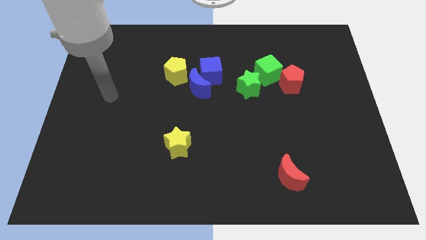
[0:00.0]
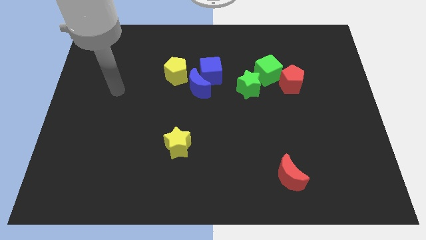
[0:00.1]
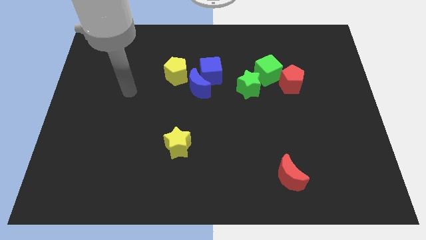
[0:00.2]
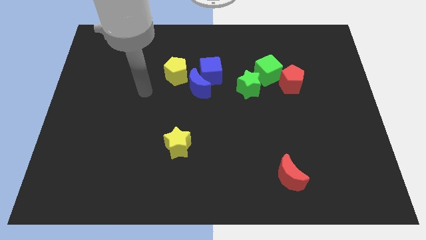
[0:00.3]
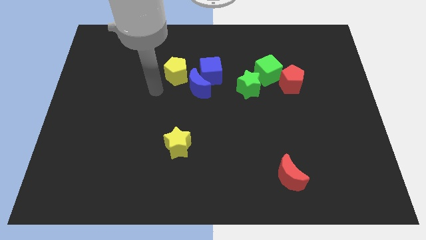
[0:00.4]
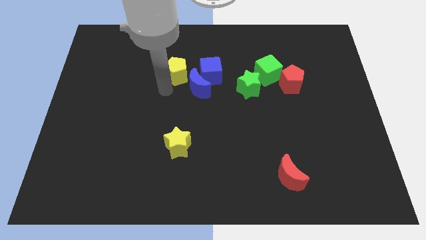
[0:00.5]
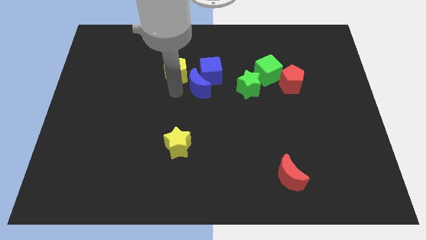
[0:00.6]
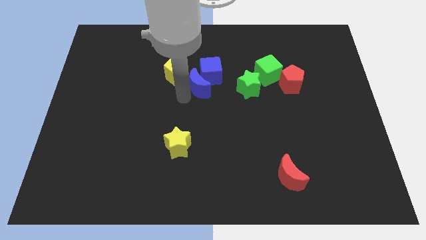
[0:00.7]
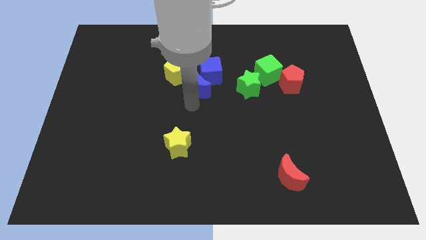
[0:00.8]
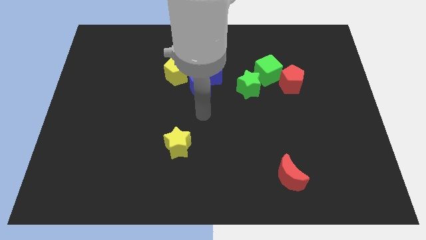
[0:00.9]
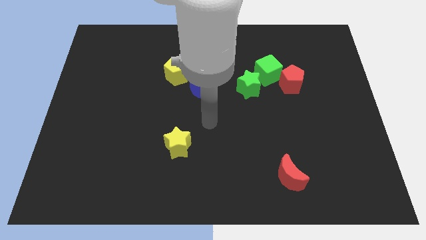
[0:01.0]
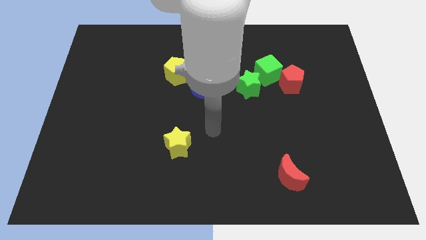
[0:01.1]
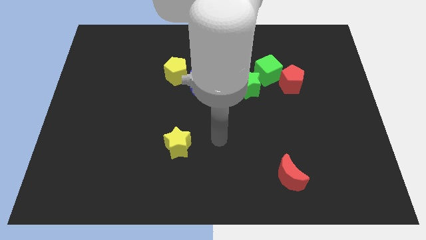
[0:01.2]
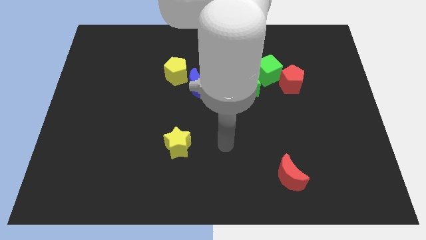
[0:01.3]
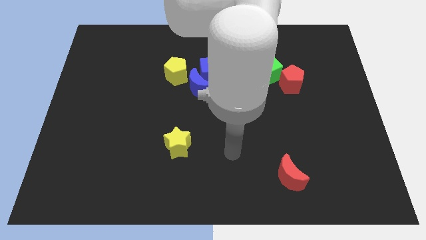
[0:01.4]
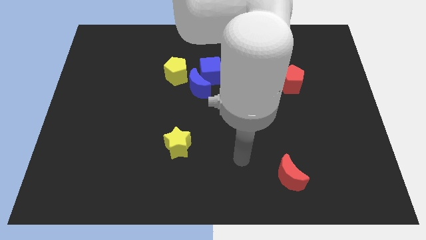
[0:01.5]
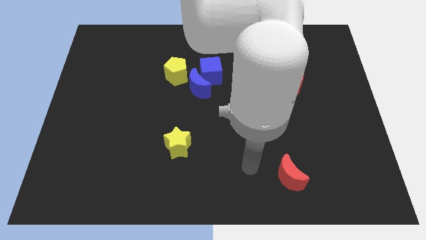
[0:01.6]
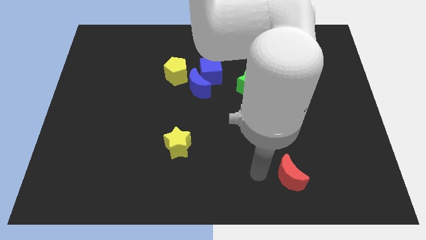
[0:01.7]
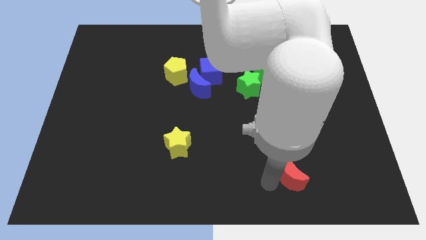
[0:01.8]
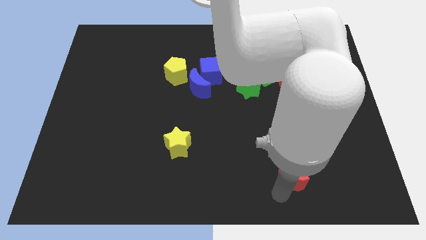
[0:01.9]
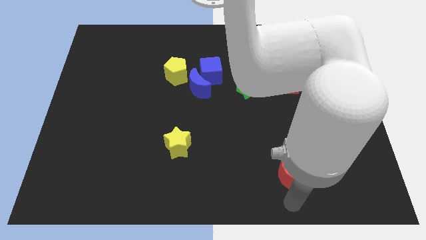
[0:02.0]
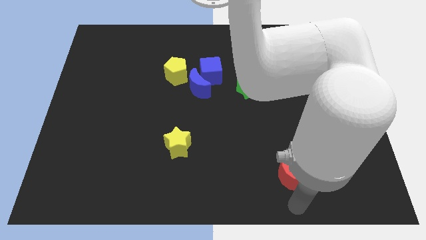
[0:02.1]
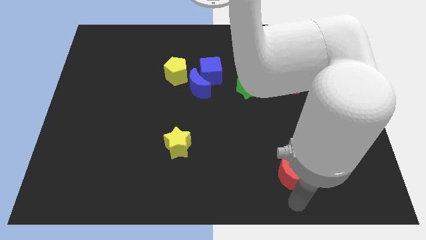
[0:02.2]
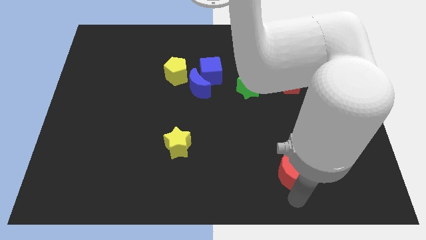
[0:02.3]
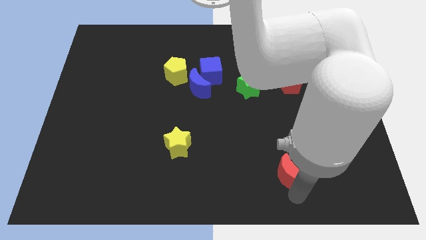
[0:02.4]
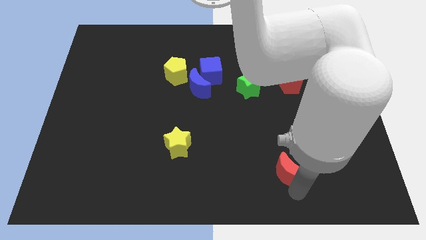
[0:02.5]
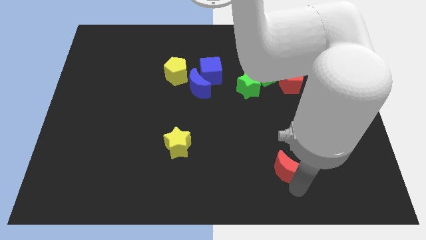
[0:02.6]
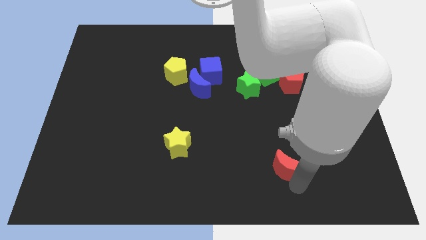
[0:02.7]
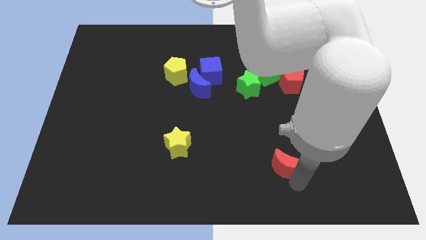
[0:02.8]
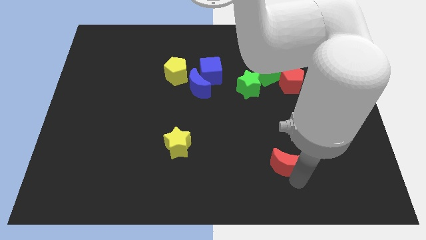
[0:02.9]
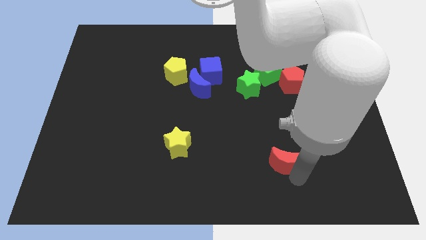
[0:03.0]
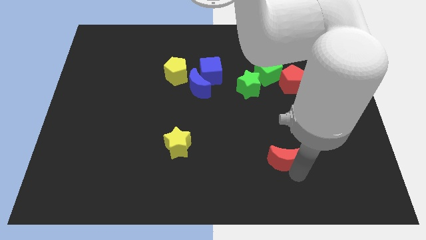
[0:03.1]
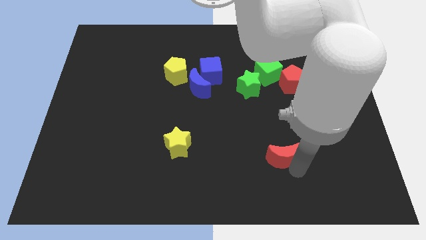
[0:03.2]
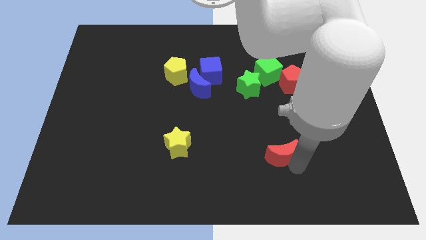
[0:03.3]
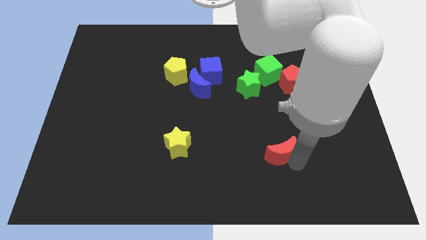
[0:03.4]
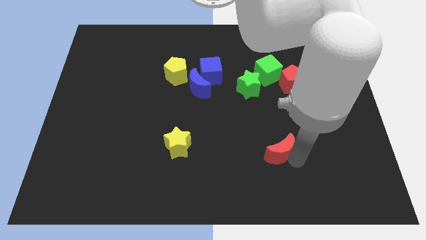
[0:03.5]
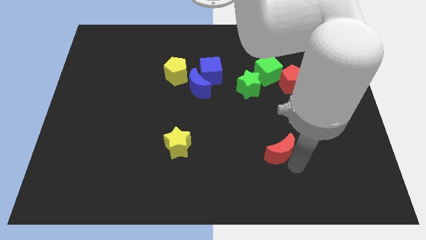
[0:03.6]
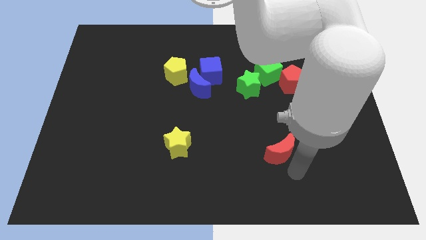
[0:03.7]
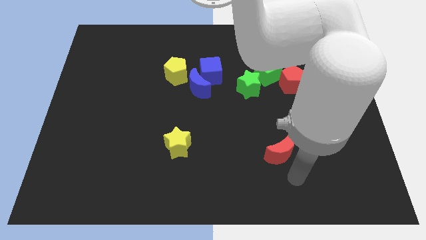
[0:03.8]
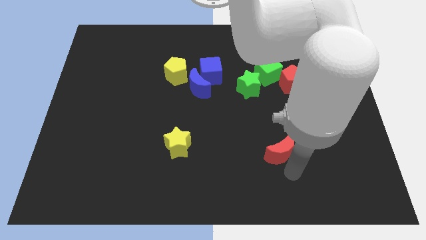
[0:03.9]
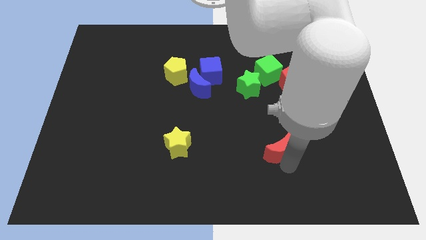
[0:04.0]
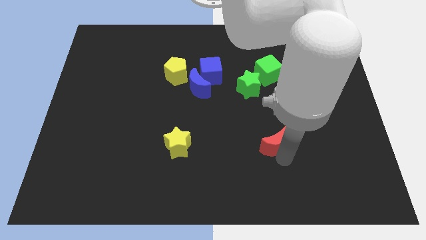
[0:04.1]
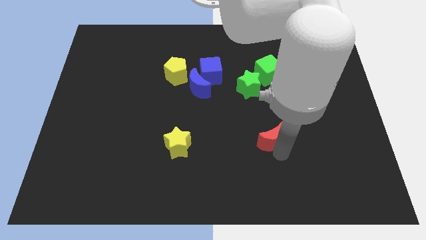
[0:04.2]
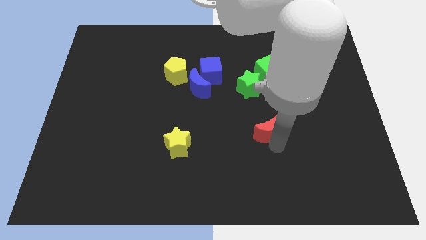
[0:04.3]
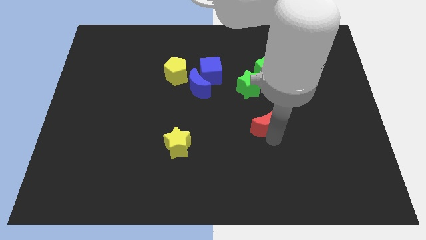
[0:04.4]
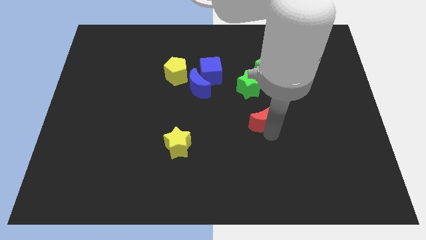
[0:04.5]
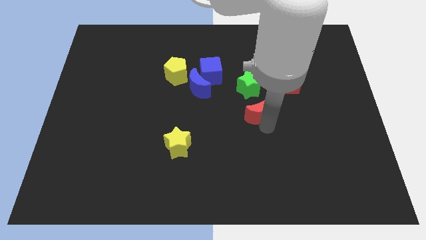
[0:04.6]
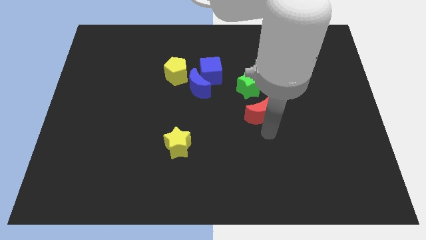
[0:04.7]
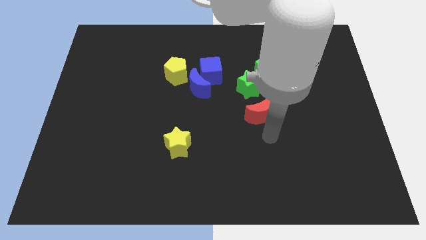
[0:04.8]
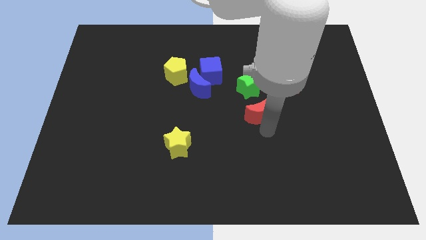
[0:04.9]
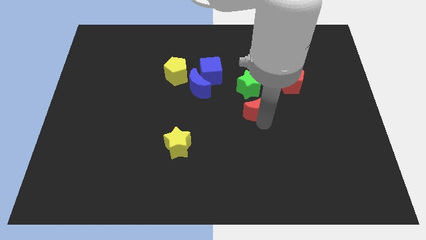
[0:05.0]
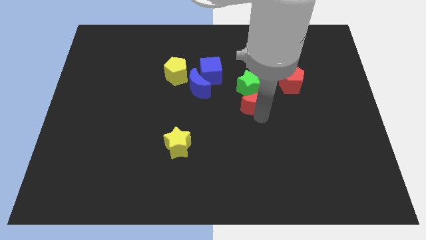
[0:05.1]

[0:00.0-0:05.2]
slide the red moon next to the green star

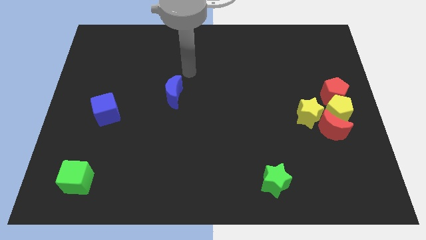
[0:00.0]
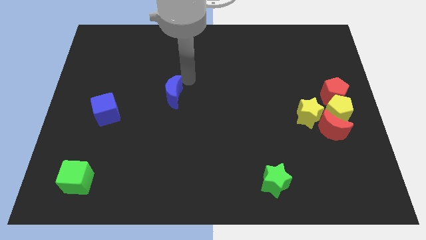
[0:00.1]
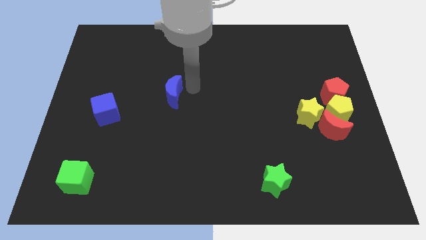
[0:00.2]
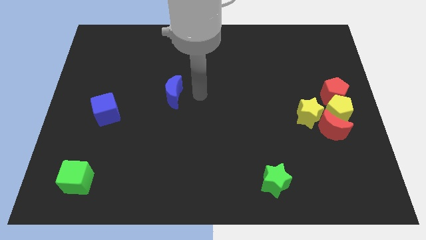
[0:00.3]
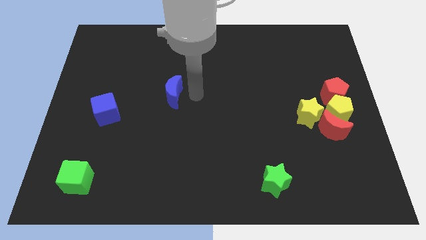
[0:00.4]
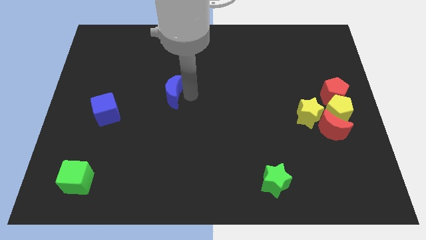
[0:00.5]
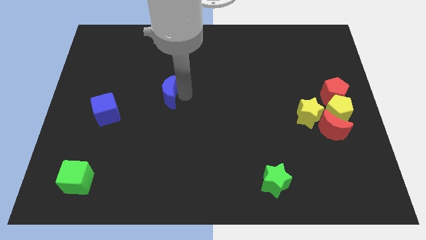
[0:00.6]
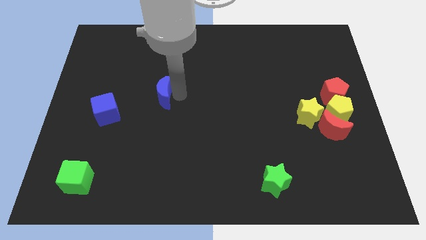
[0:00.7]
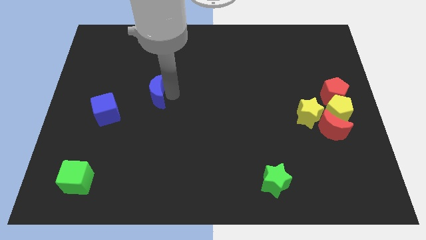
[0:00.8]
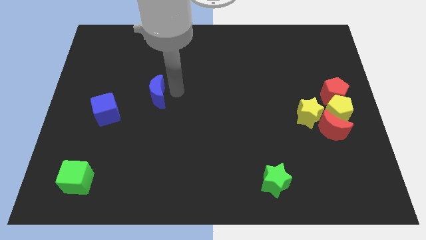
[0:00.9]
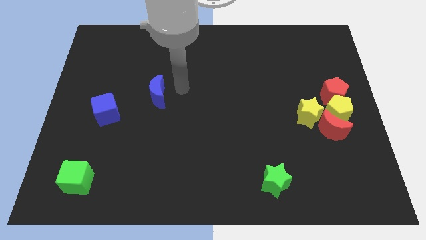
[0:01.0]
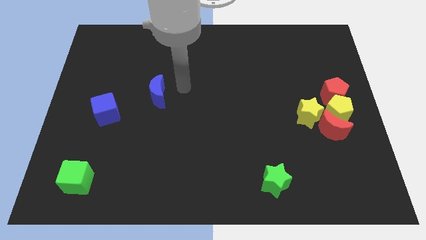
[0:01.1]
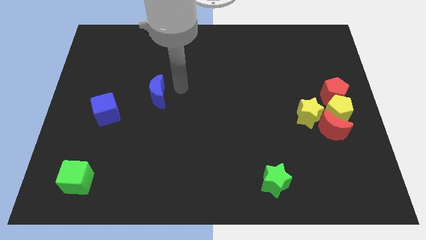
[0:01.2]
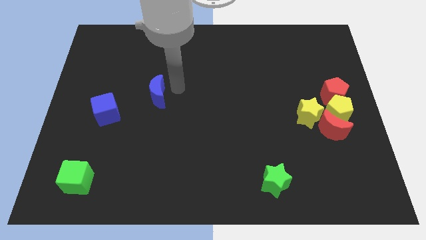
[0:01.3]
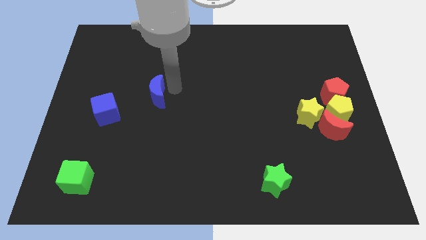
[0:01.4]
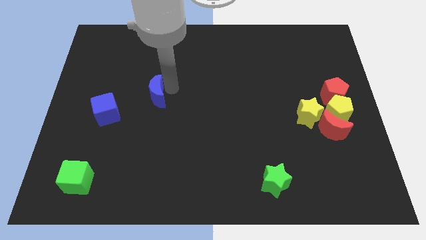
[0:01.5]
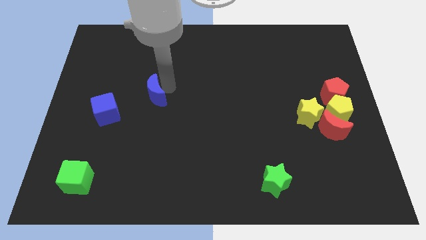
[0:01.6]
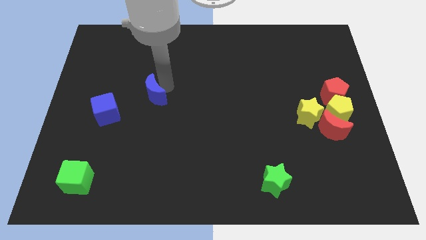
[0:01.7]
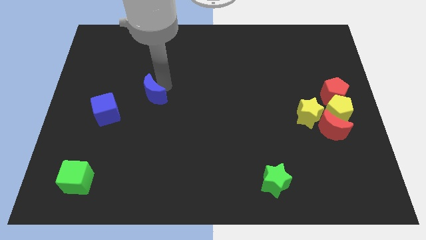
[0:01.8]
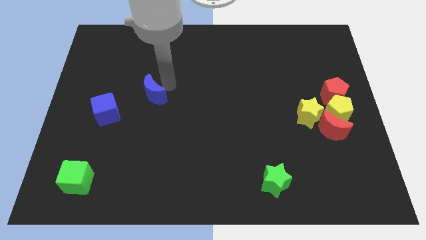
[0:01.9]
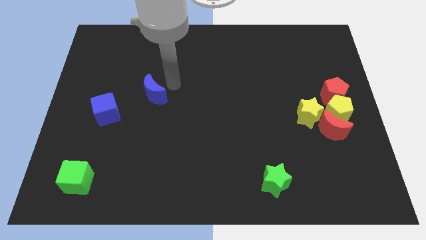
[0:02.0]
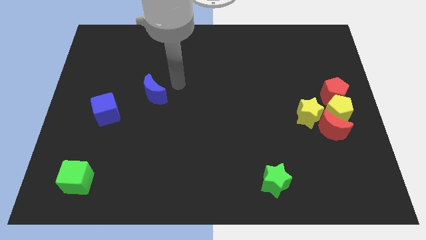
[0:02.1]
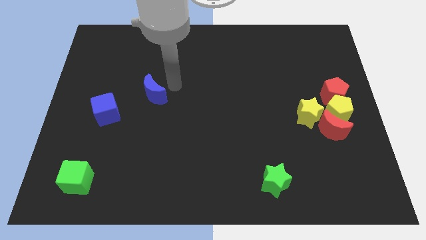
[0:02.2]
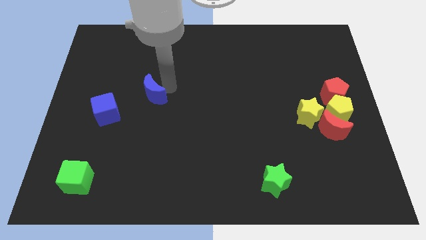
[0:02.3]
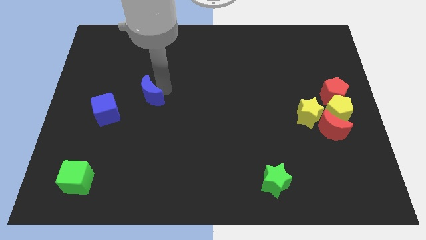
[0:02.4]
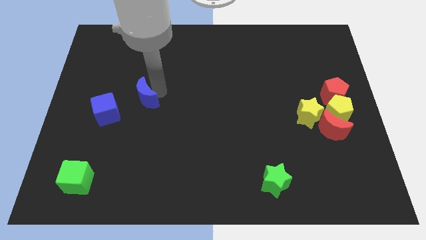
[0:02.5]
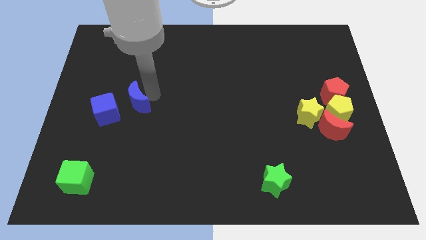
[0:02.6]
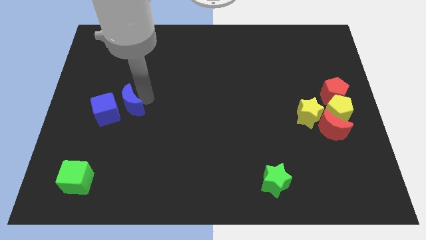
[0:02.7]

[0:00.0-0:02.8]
put the blue moon close to the blue cube
